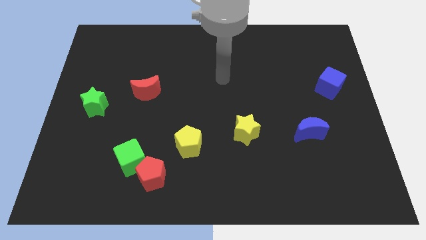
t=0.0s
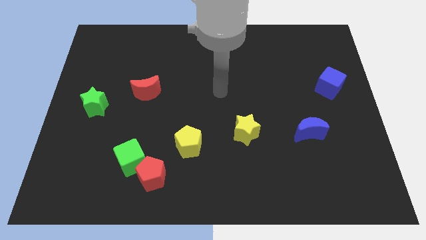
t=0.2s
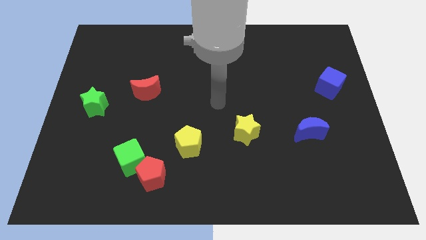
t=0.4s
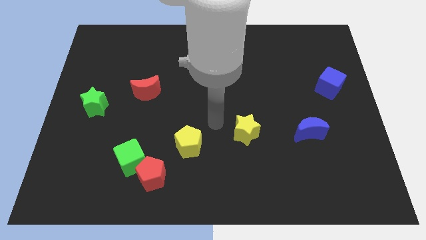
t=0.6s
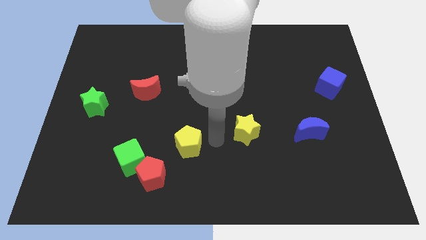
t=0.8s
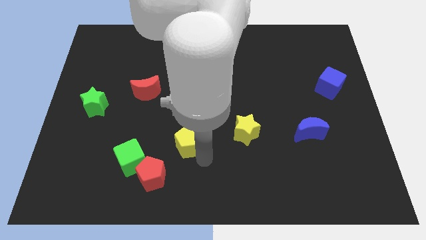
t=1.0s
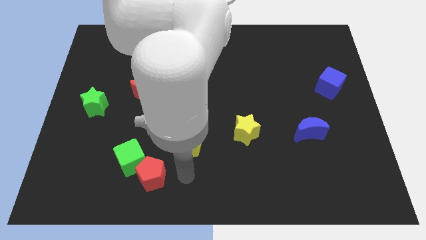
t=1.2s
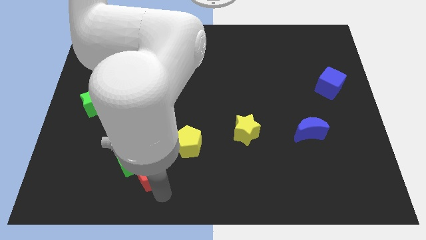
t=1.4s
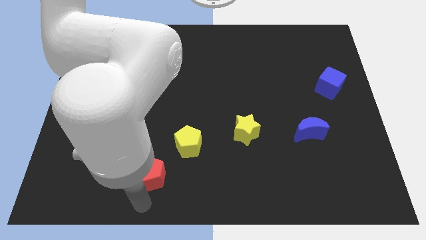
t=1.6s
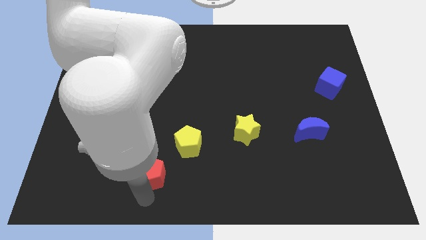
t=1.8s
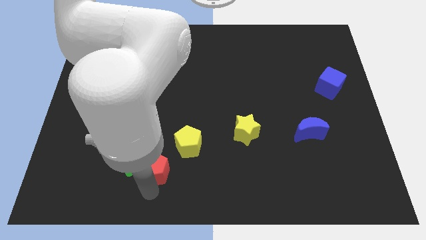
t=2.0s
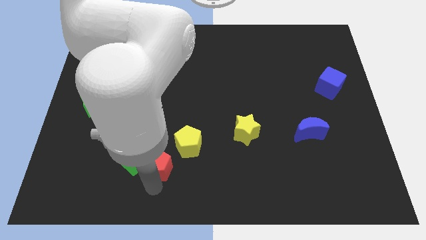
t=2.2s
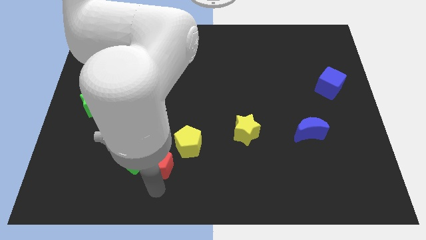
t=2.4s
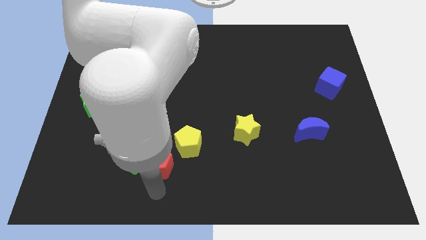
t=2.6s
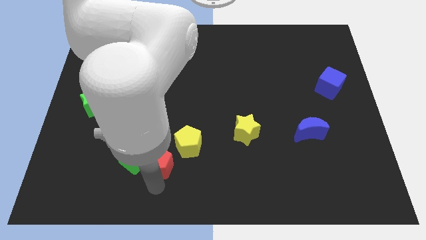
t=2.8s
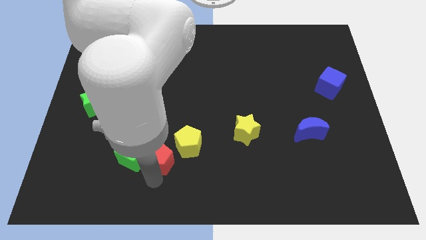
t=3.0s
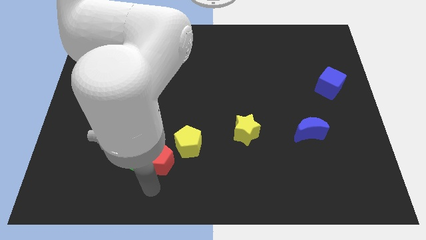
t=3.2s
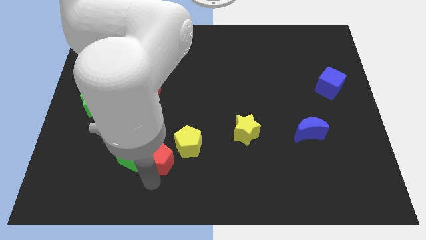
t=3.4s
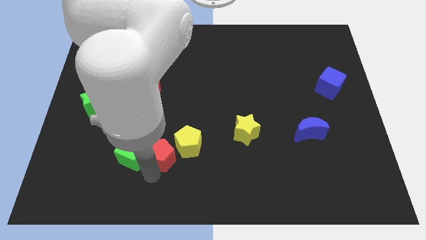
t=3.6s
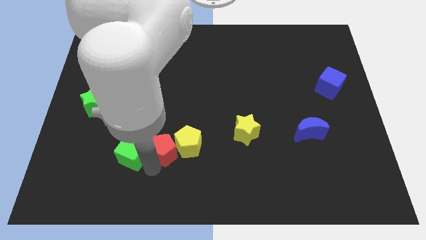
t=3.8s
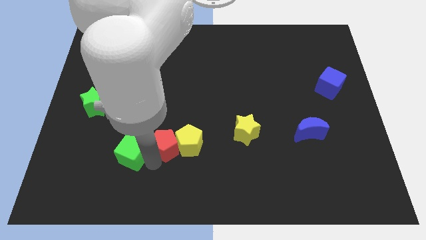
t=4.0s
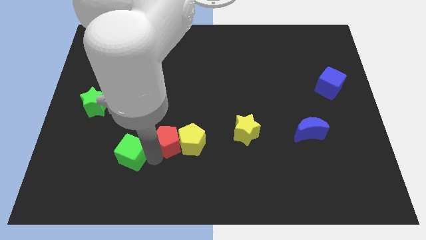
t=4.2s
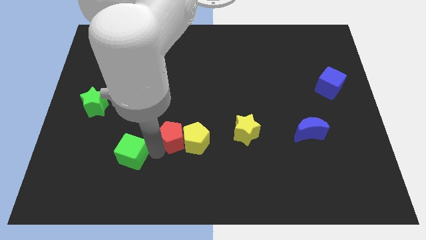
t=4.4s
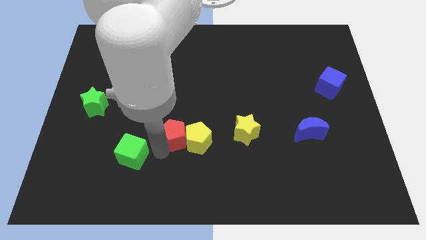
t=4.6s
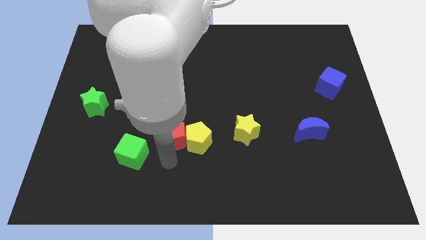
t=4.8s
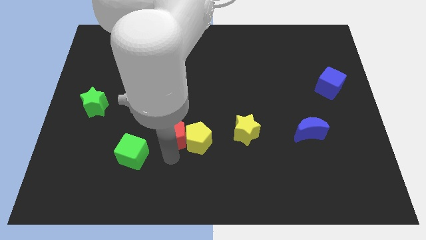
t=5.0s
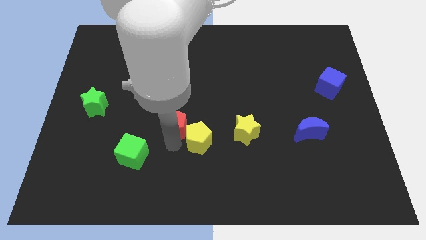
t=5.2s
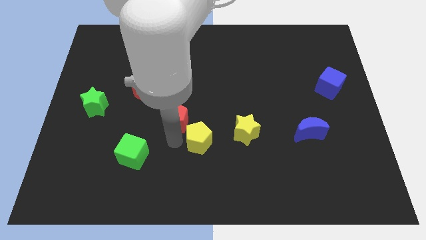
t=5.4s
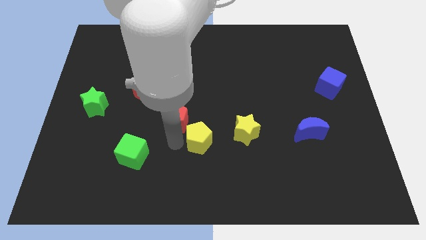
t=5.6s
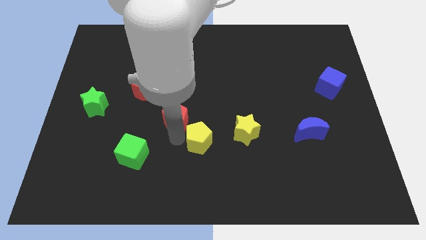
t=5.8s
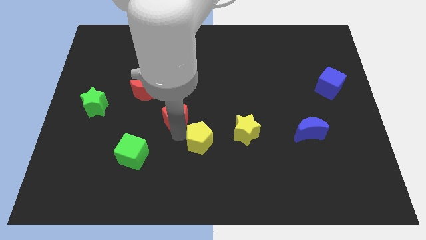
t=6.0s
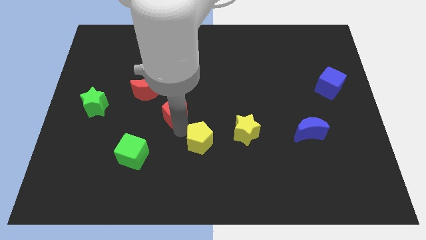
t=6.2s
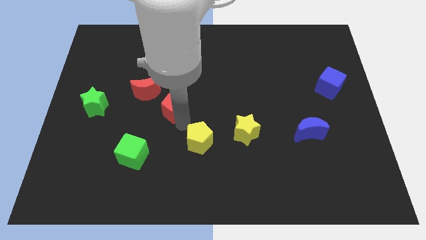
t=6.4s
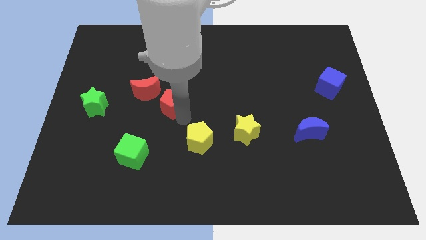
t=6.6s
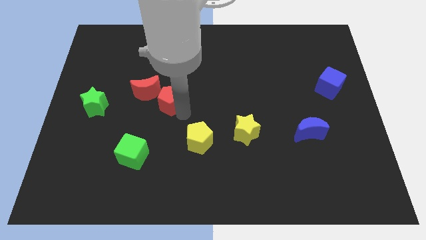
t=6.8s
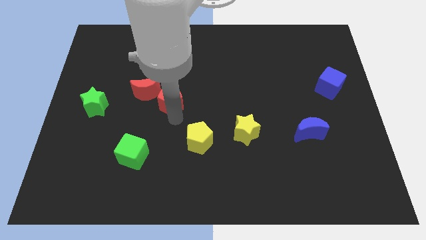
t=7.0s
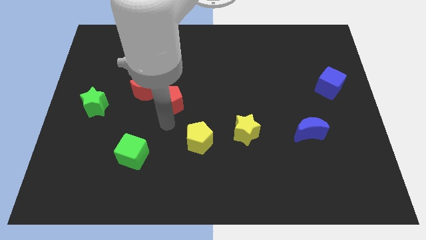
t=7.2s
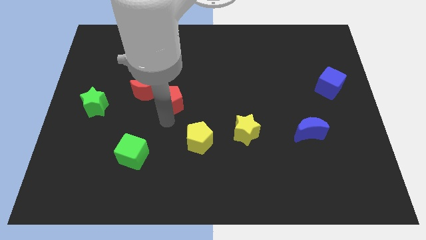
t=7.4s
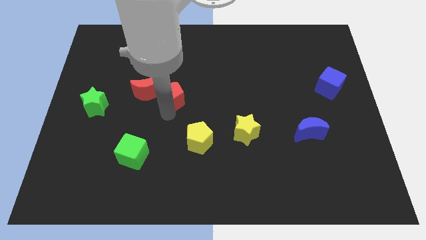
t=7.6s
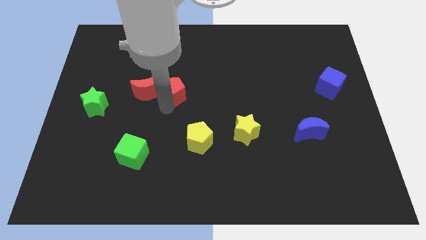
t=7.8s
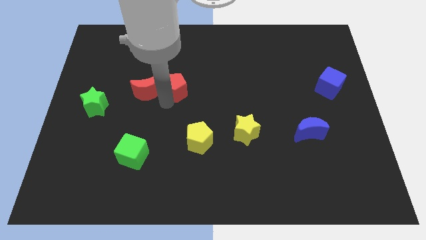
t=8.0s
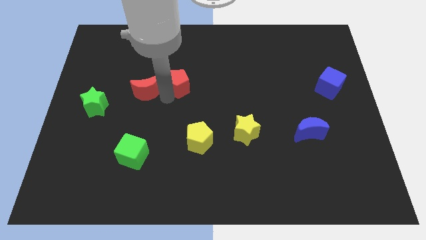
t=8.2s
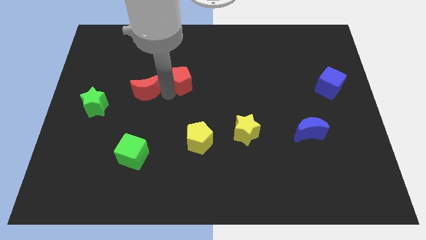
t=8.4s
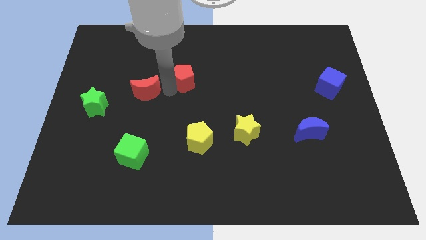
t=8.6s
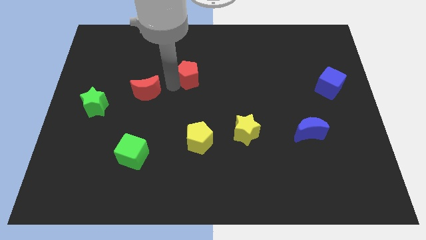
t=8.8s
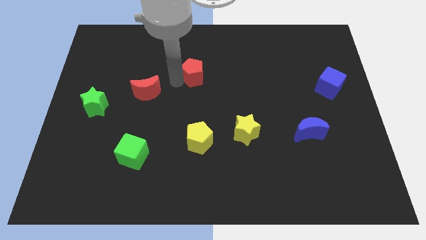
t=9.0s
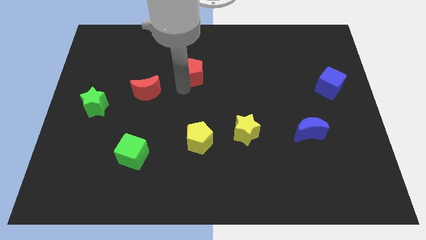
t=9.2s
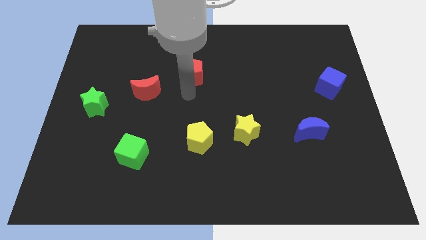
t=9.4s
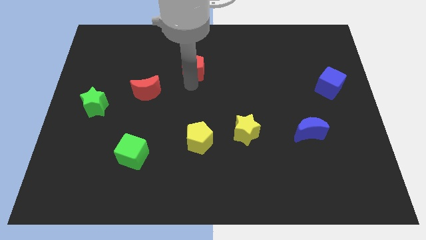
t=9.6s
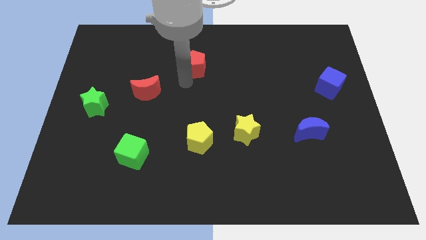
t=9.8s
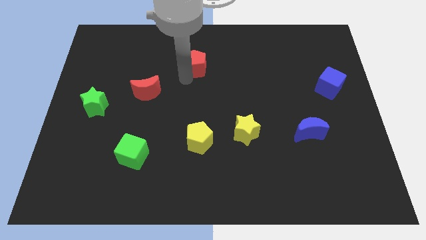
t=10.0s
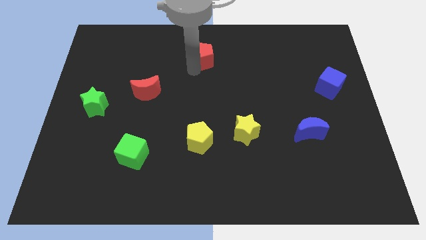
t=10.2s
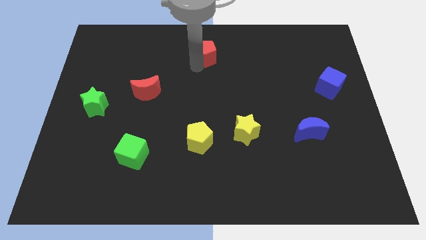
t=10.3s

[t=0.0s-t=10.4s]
put the red pentagon to the top
